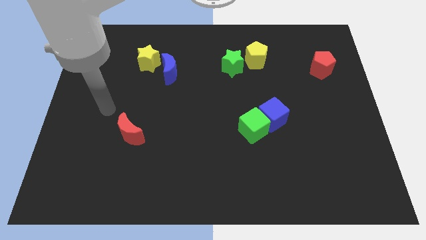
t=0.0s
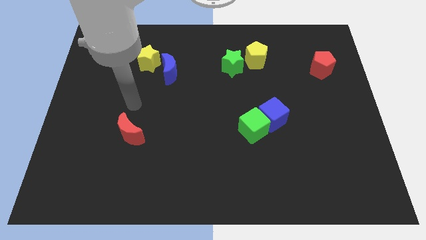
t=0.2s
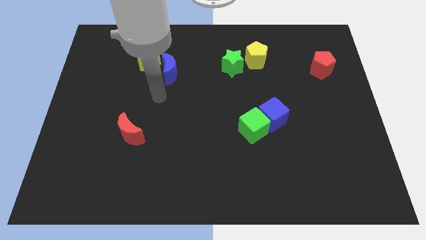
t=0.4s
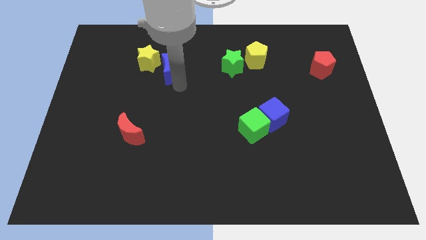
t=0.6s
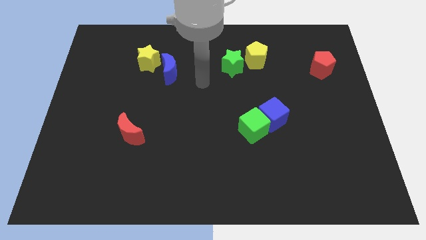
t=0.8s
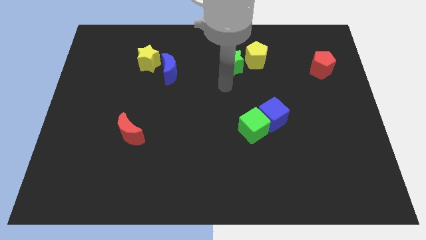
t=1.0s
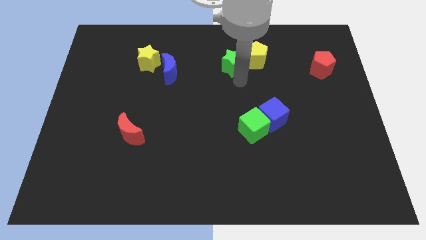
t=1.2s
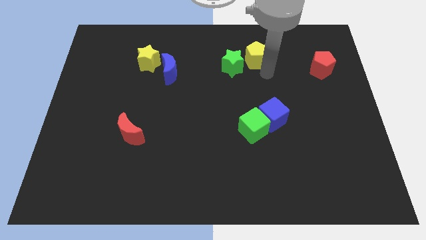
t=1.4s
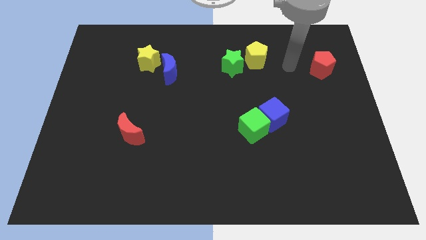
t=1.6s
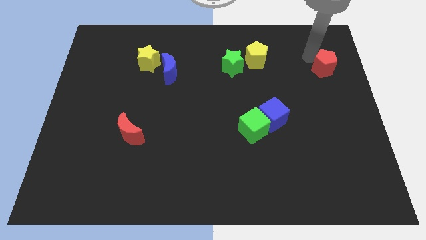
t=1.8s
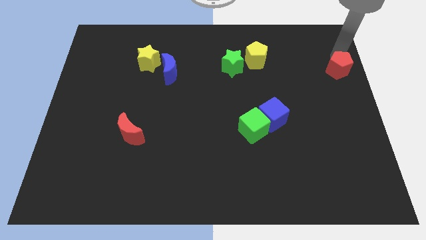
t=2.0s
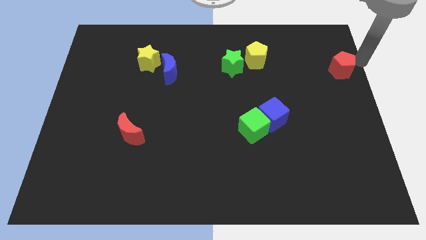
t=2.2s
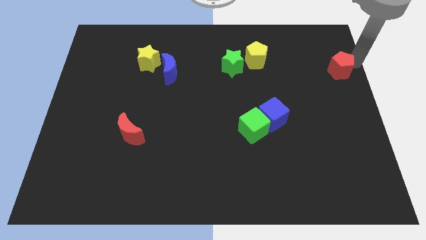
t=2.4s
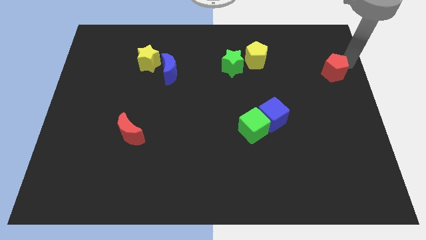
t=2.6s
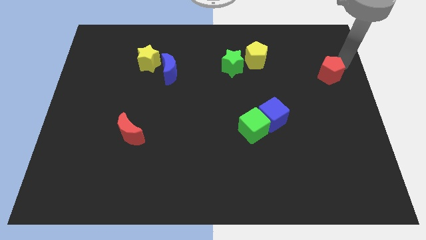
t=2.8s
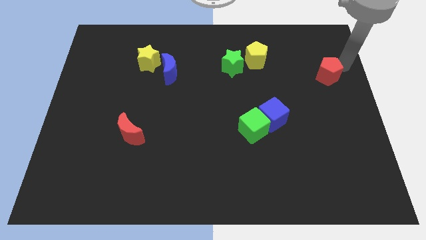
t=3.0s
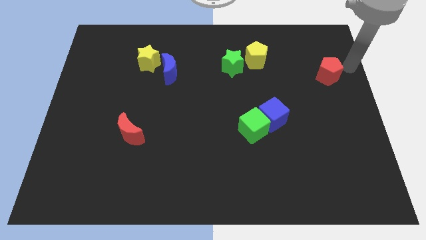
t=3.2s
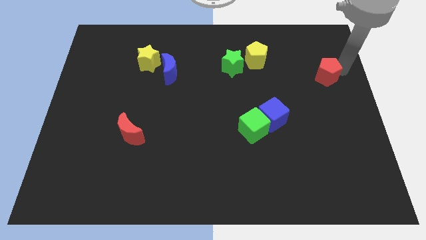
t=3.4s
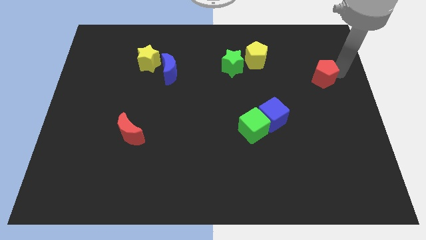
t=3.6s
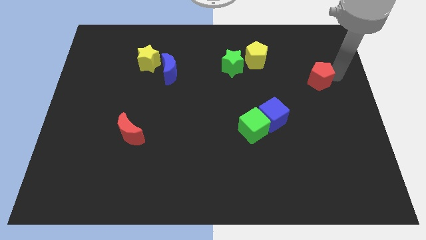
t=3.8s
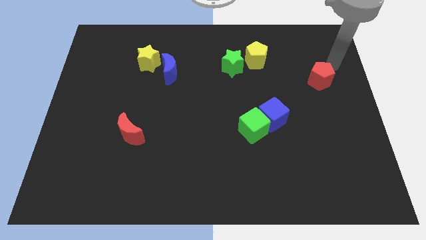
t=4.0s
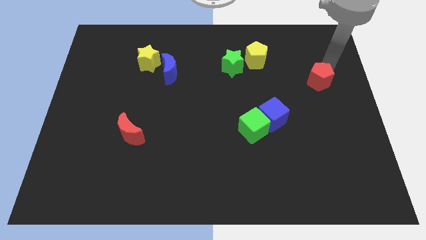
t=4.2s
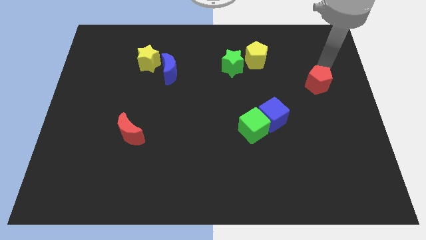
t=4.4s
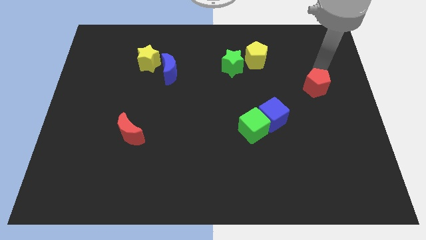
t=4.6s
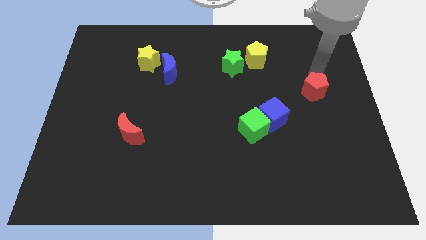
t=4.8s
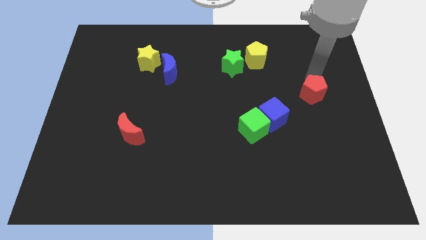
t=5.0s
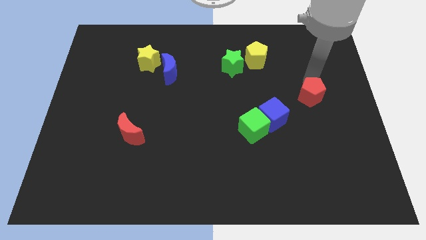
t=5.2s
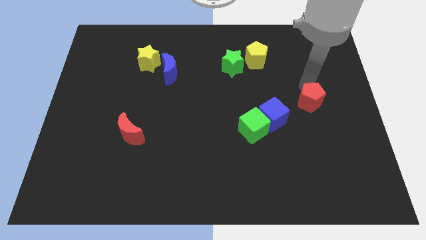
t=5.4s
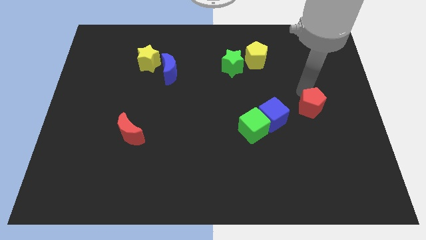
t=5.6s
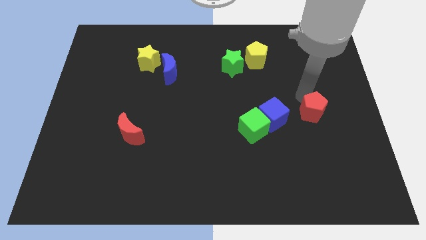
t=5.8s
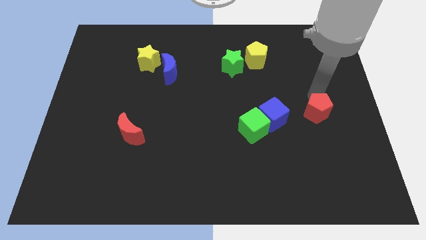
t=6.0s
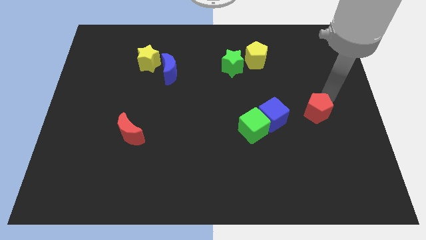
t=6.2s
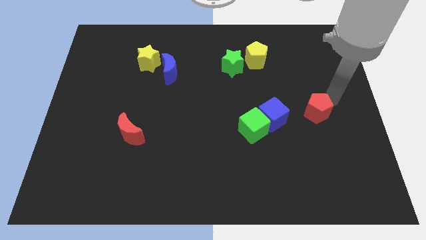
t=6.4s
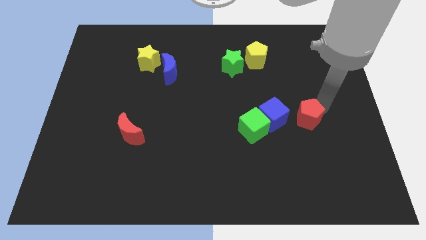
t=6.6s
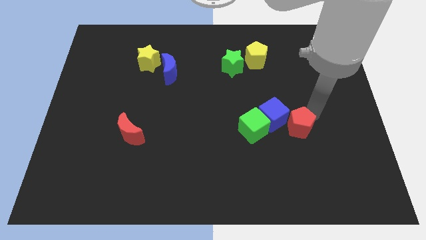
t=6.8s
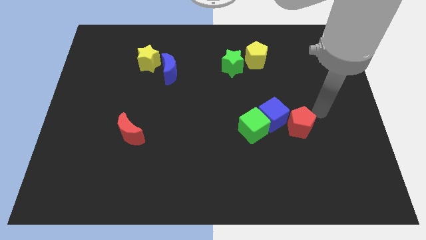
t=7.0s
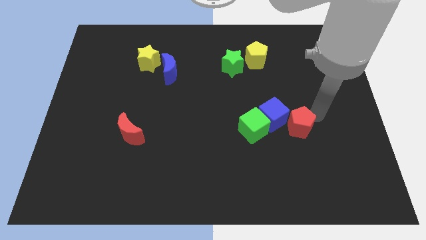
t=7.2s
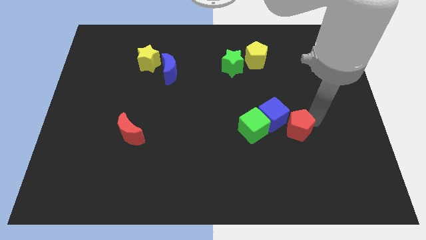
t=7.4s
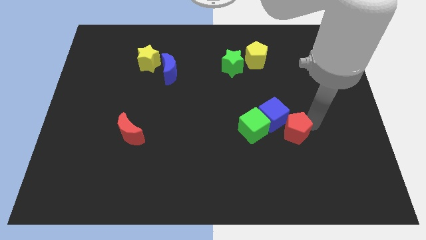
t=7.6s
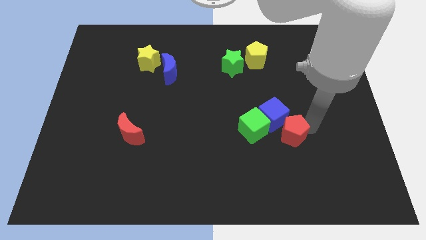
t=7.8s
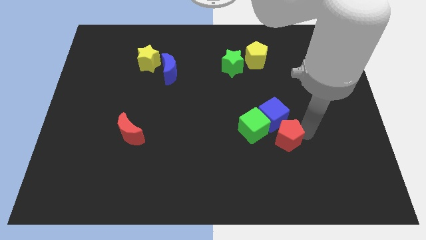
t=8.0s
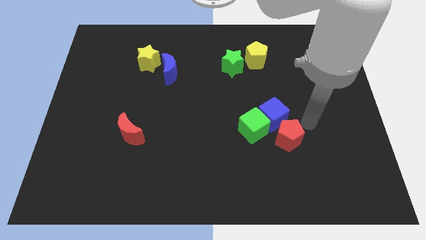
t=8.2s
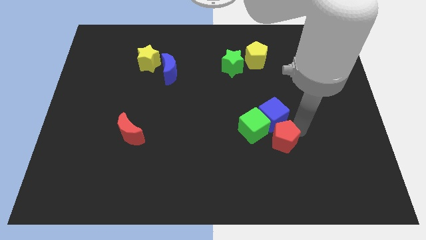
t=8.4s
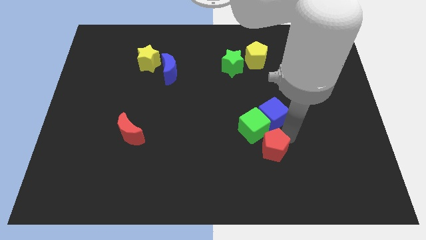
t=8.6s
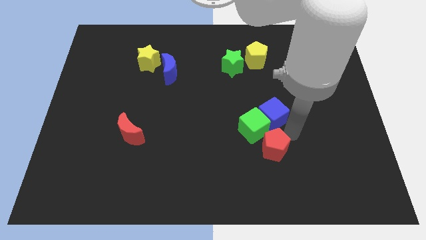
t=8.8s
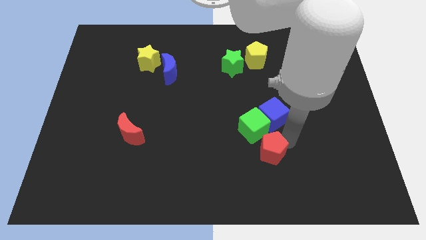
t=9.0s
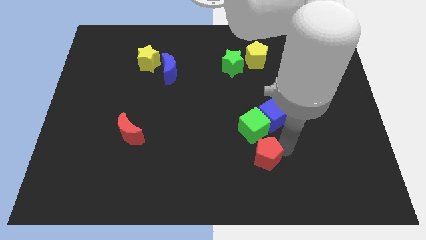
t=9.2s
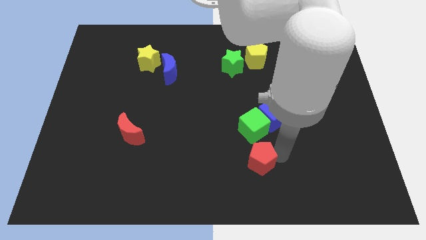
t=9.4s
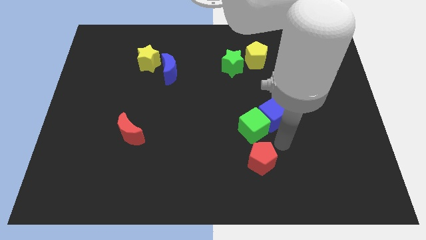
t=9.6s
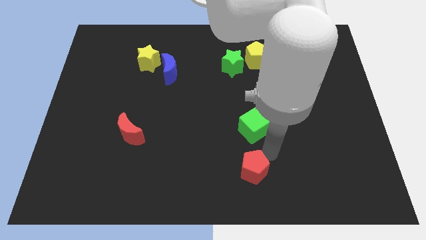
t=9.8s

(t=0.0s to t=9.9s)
slide the red pentagon to the bottom

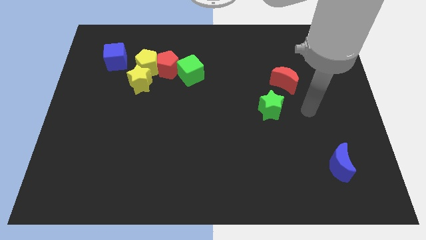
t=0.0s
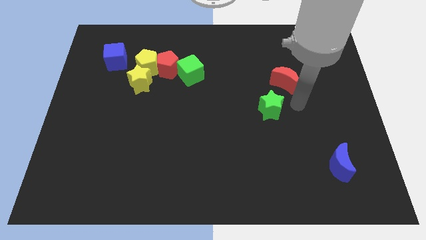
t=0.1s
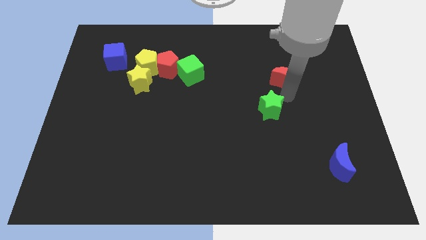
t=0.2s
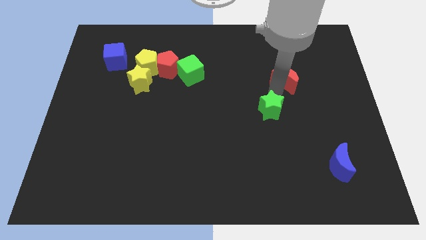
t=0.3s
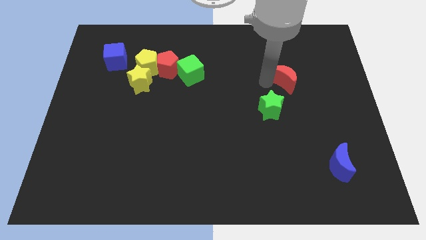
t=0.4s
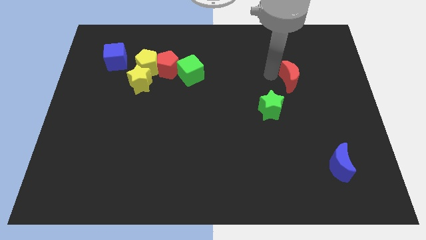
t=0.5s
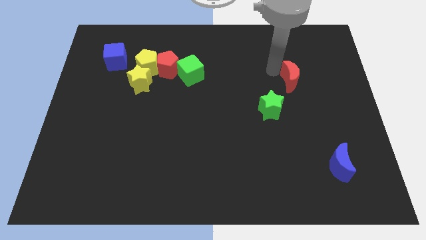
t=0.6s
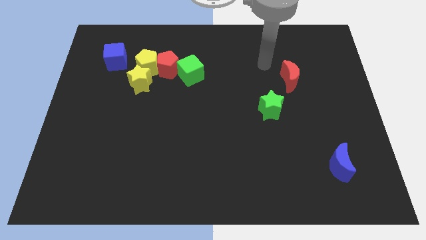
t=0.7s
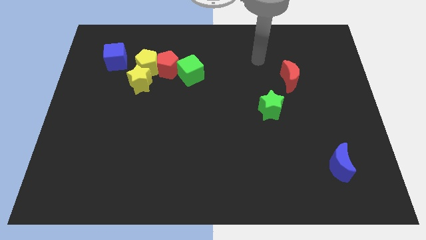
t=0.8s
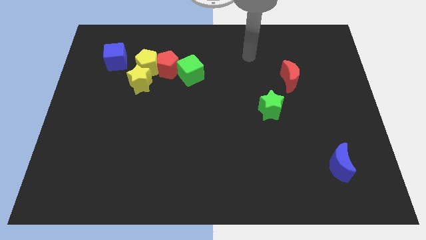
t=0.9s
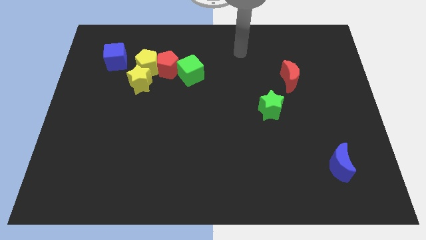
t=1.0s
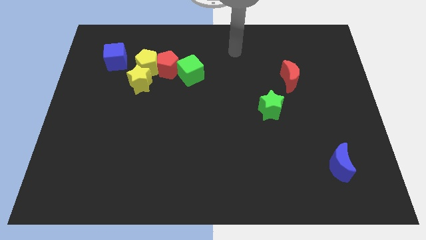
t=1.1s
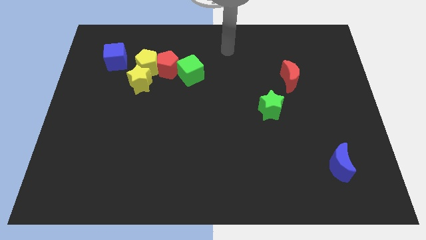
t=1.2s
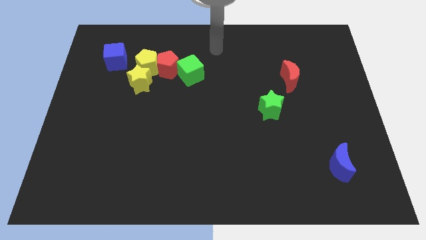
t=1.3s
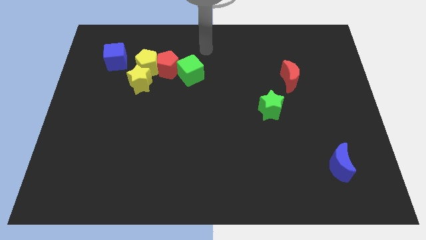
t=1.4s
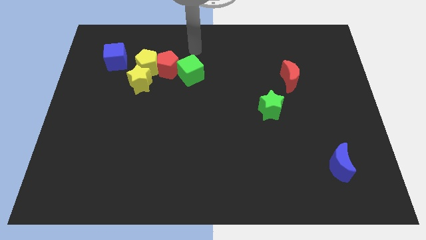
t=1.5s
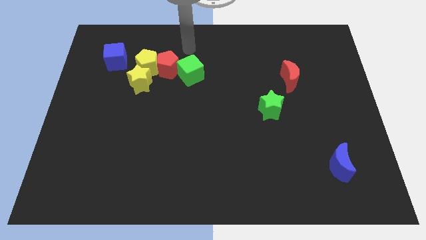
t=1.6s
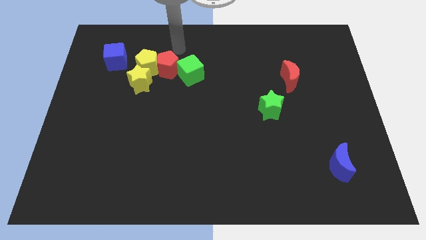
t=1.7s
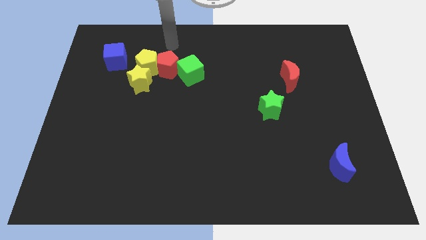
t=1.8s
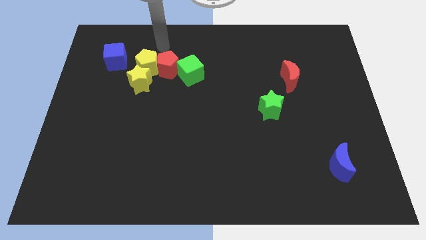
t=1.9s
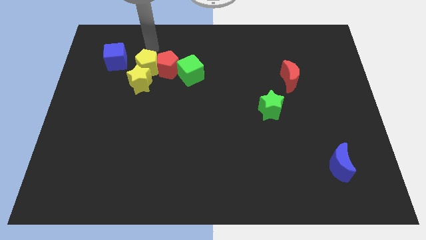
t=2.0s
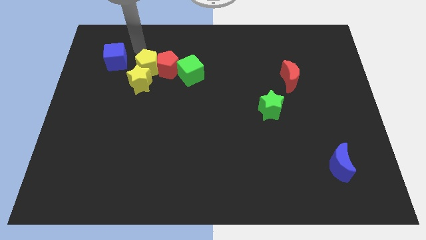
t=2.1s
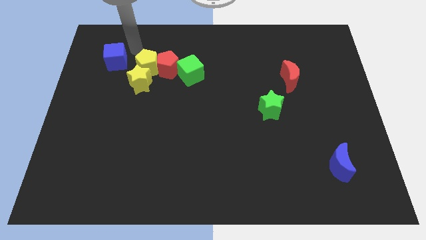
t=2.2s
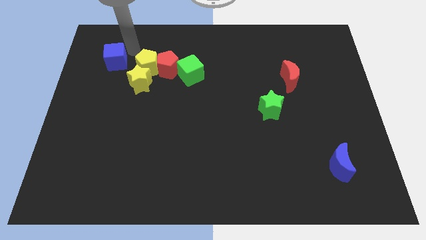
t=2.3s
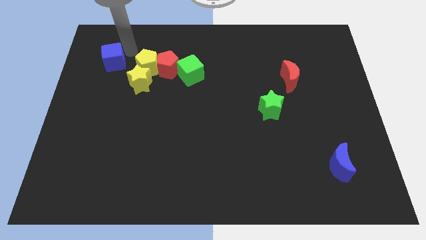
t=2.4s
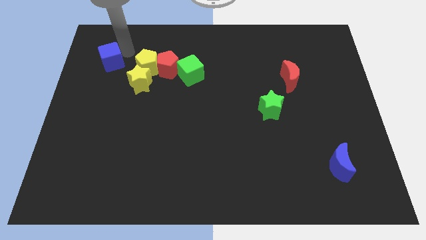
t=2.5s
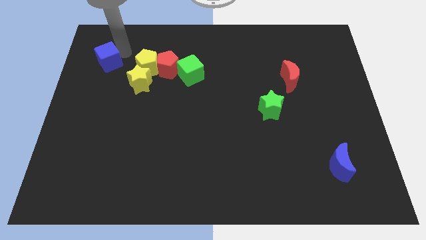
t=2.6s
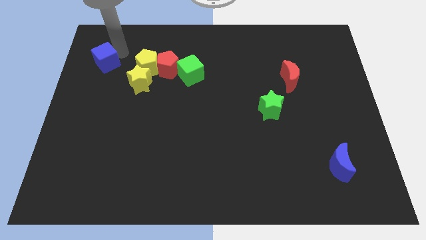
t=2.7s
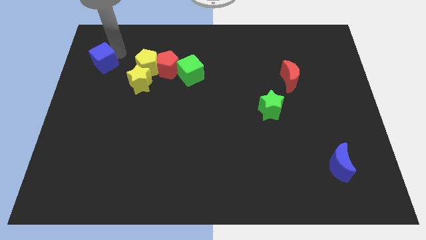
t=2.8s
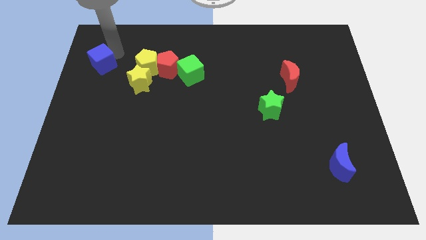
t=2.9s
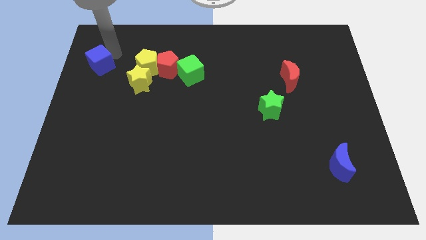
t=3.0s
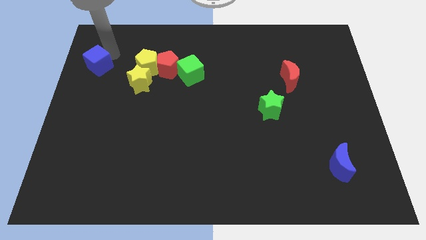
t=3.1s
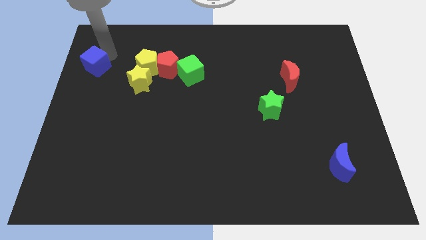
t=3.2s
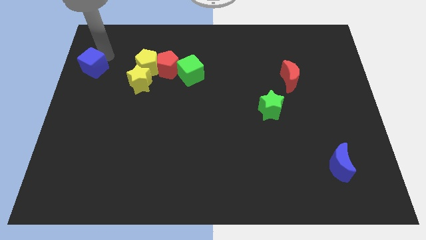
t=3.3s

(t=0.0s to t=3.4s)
move the blue cube to the left side of the board
